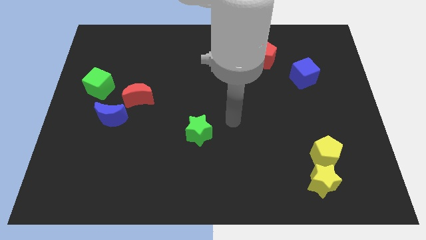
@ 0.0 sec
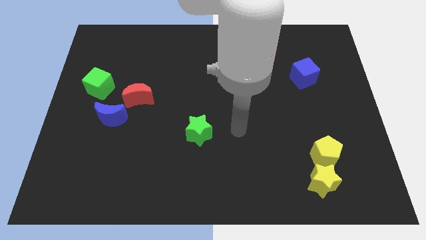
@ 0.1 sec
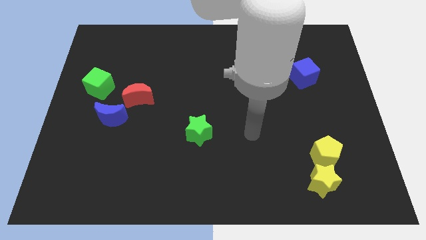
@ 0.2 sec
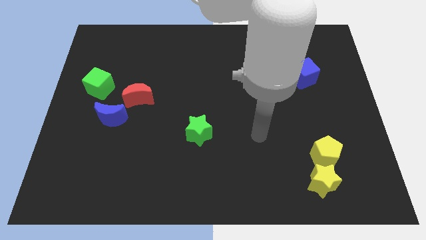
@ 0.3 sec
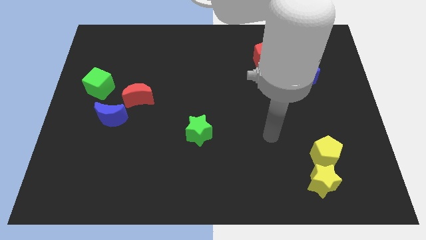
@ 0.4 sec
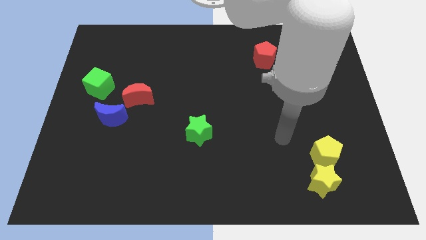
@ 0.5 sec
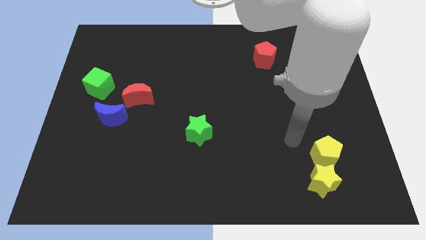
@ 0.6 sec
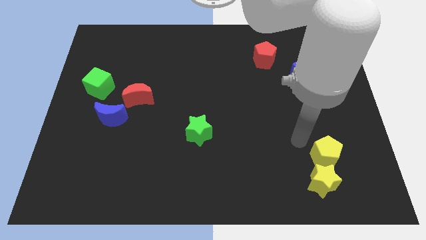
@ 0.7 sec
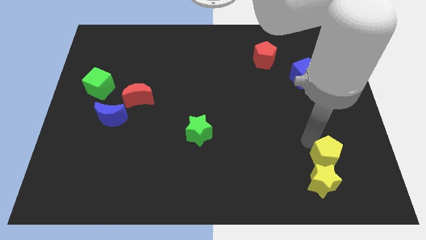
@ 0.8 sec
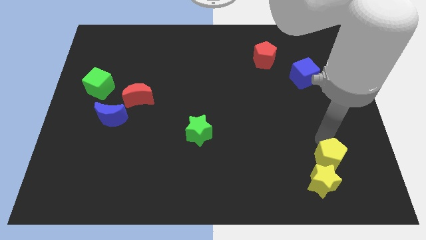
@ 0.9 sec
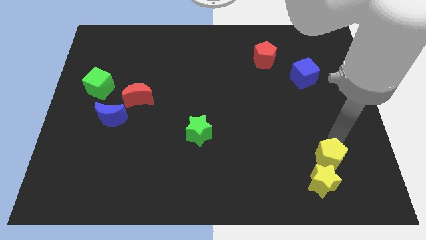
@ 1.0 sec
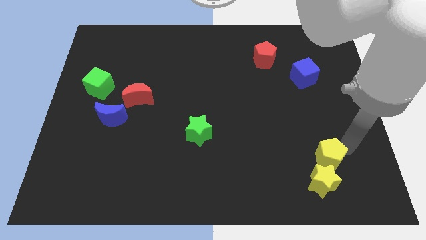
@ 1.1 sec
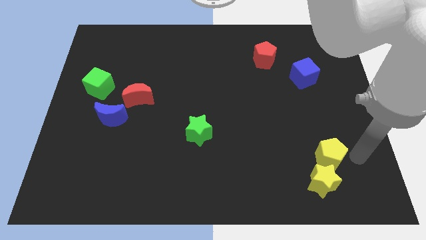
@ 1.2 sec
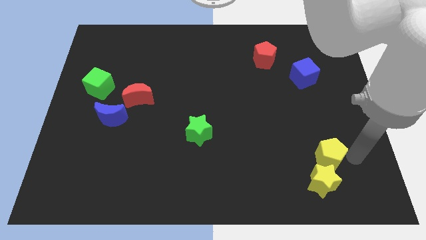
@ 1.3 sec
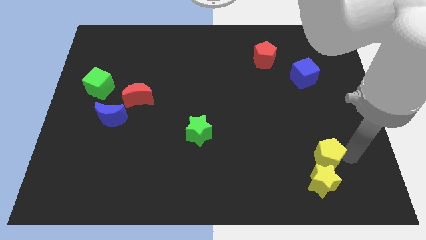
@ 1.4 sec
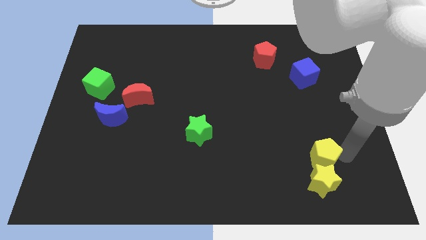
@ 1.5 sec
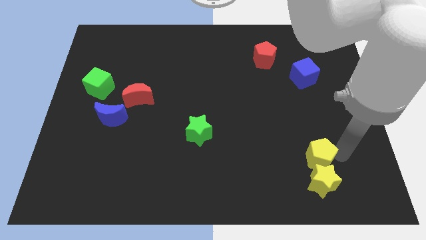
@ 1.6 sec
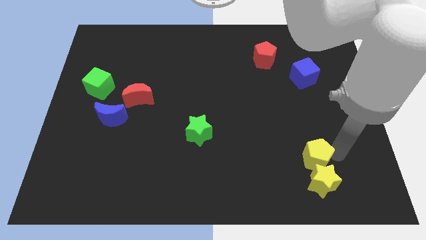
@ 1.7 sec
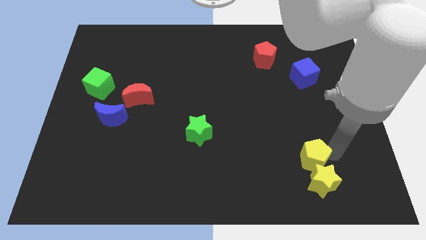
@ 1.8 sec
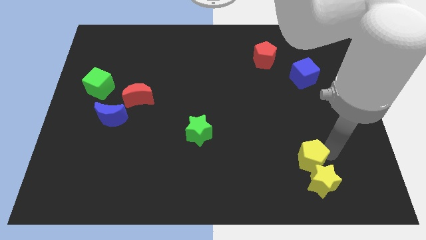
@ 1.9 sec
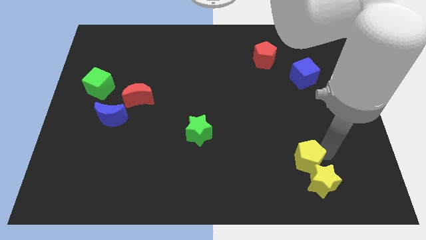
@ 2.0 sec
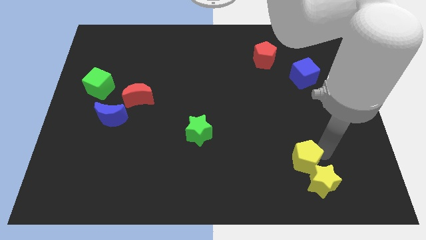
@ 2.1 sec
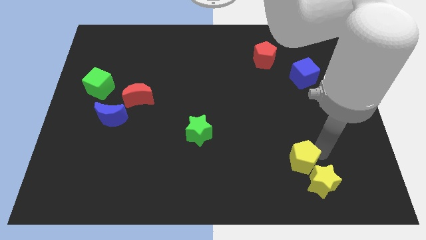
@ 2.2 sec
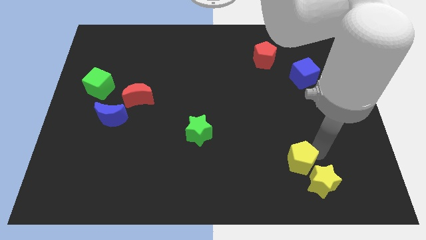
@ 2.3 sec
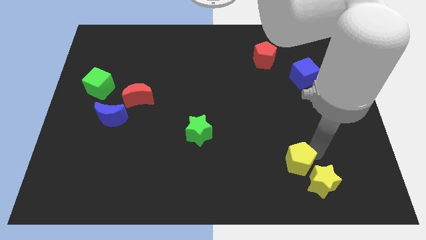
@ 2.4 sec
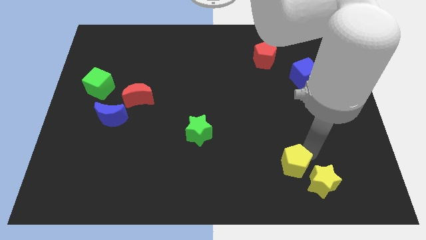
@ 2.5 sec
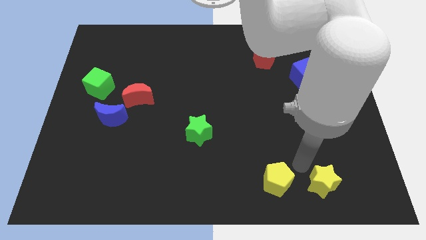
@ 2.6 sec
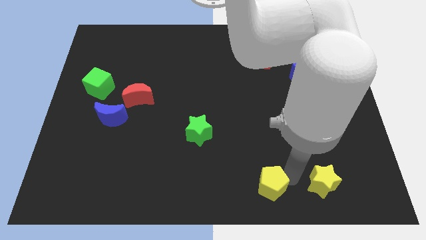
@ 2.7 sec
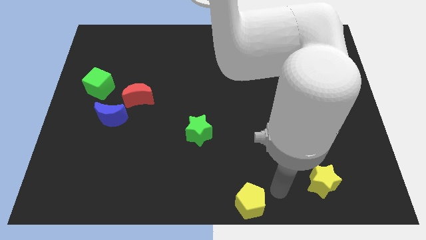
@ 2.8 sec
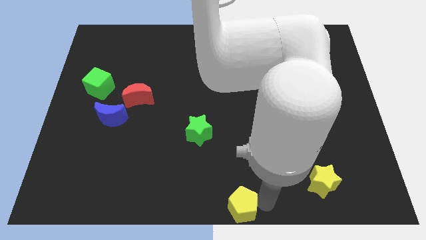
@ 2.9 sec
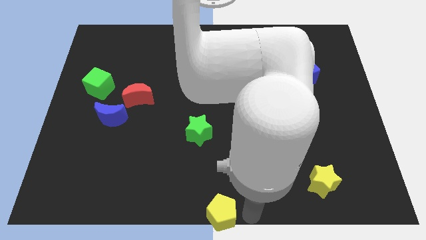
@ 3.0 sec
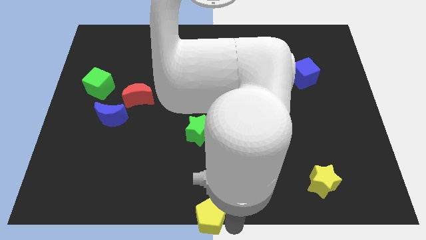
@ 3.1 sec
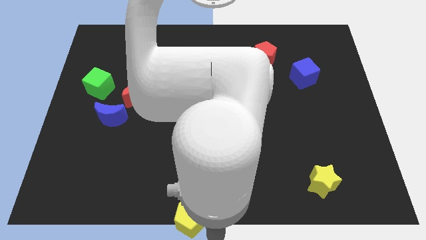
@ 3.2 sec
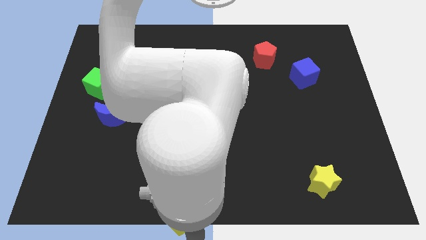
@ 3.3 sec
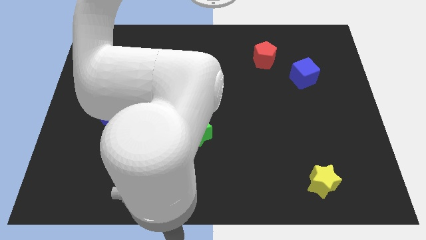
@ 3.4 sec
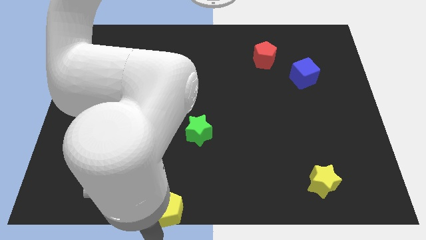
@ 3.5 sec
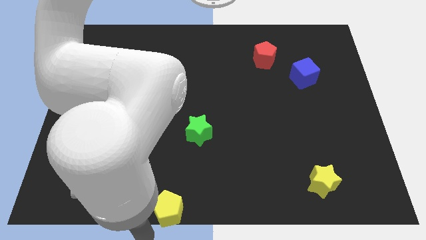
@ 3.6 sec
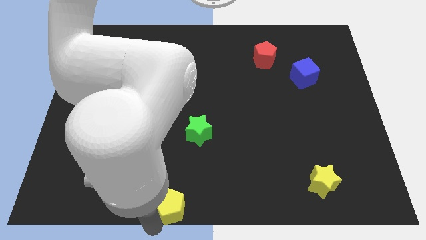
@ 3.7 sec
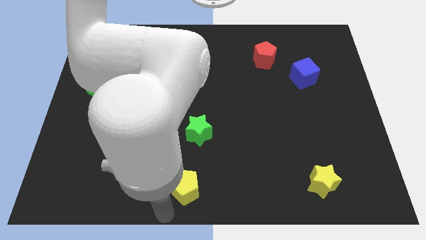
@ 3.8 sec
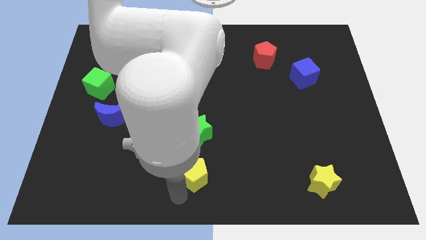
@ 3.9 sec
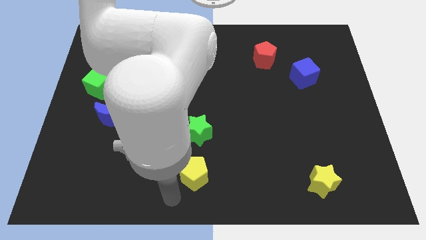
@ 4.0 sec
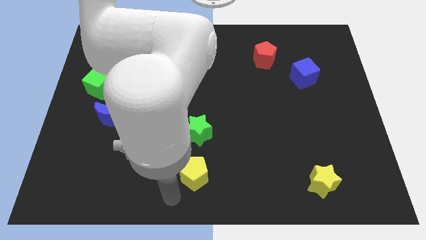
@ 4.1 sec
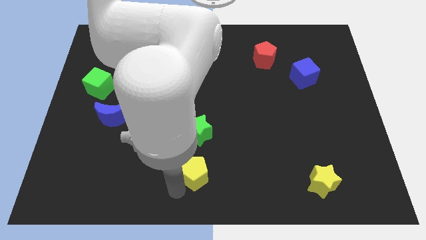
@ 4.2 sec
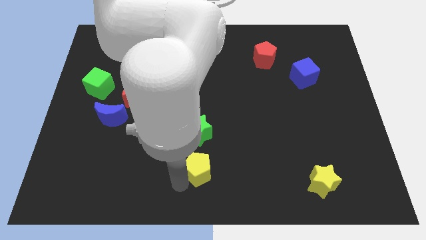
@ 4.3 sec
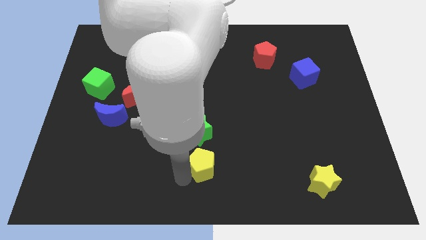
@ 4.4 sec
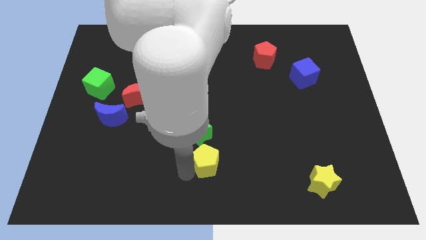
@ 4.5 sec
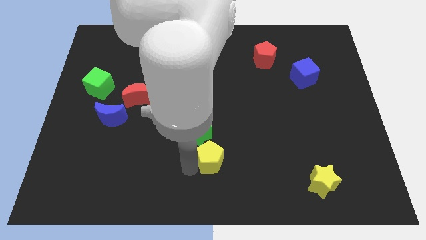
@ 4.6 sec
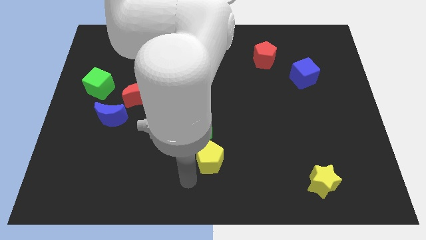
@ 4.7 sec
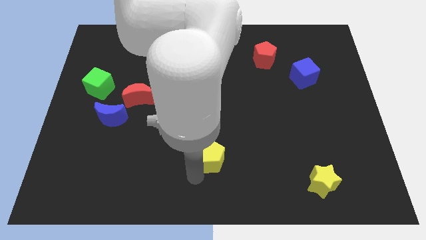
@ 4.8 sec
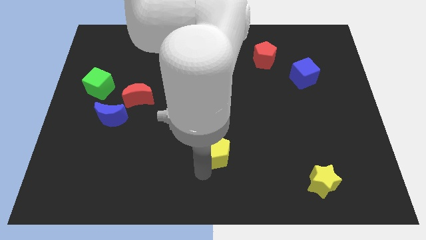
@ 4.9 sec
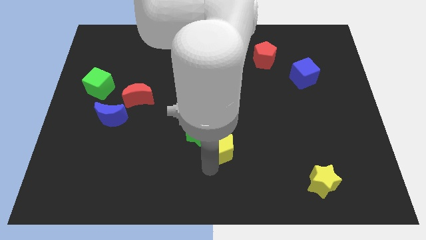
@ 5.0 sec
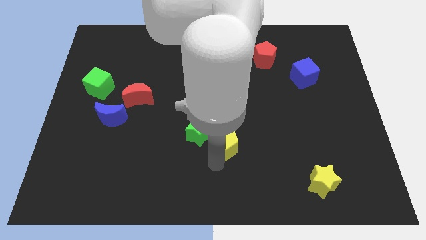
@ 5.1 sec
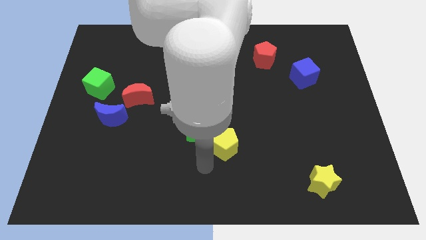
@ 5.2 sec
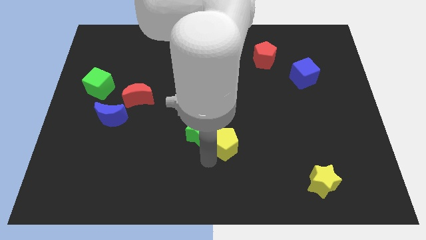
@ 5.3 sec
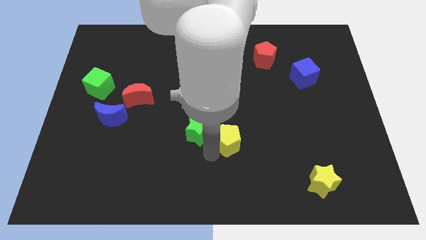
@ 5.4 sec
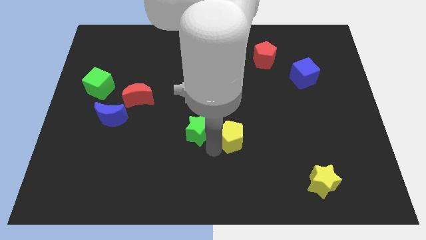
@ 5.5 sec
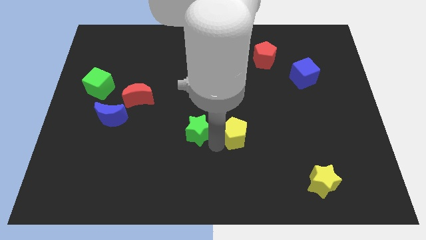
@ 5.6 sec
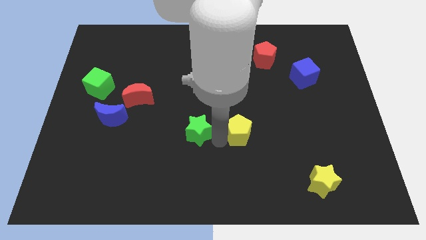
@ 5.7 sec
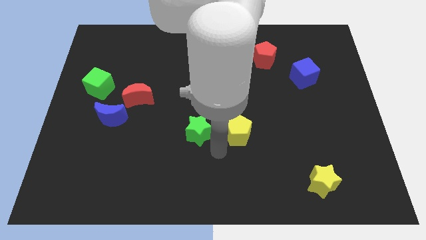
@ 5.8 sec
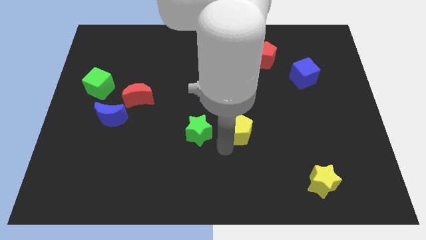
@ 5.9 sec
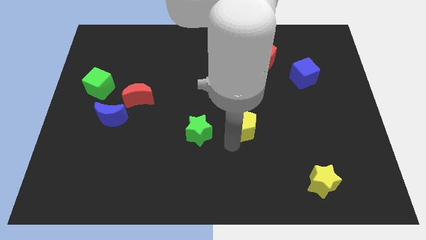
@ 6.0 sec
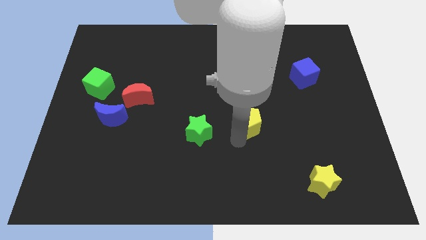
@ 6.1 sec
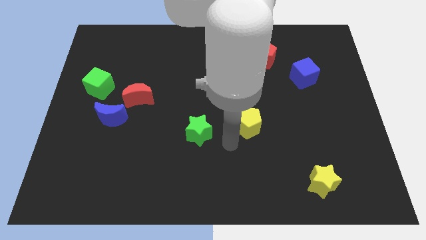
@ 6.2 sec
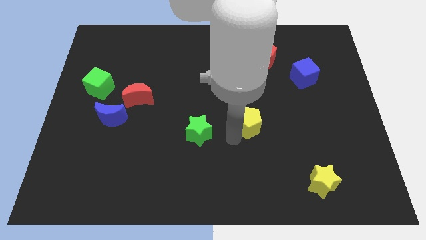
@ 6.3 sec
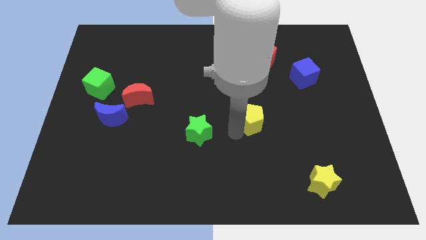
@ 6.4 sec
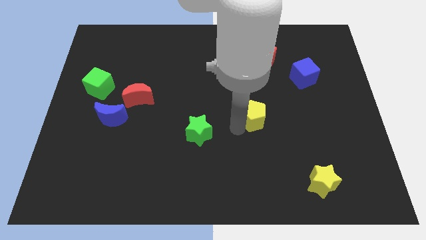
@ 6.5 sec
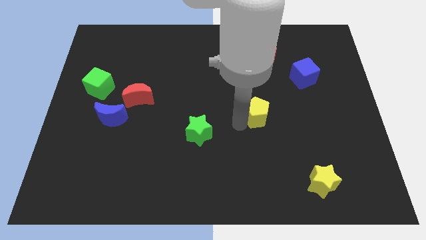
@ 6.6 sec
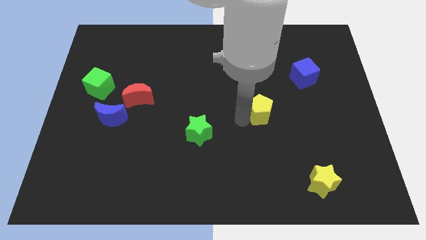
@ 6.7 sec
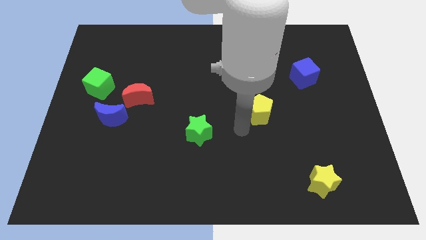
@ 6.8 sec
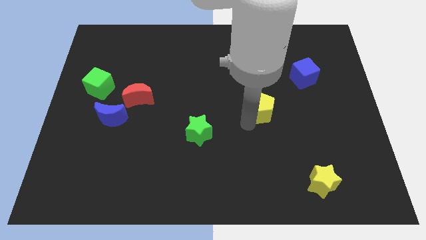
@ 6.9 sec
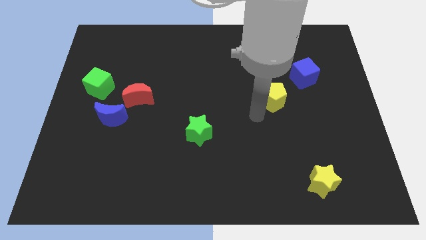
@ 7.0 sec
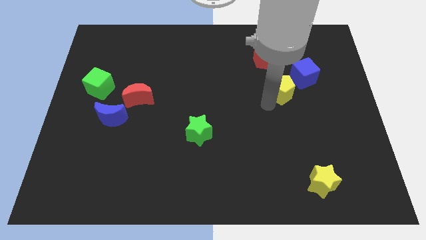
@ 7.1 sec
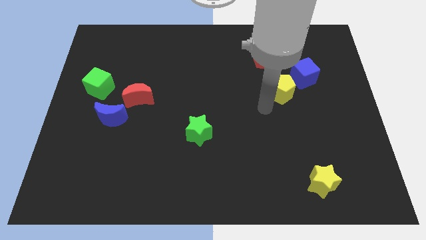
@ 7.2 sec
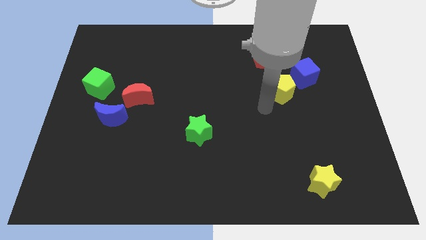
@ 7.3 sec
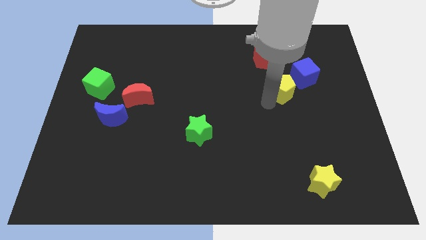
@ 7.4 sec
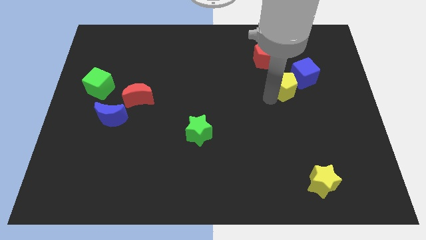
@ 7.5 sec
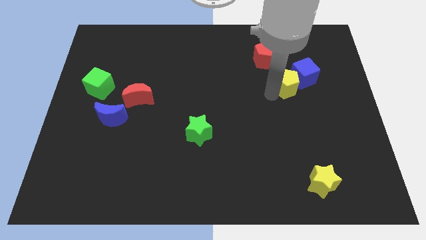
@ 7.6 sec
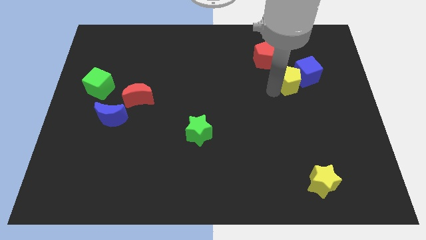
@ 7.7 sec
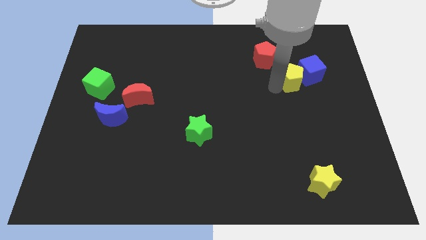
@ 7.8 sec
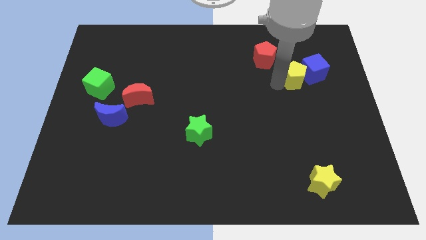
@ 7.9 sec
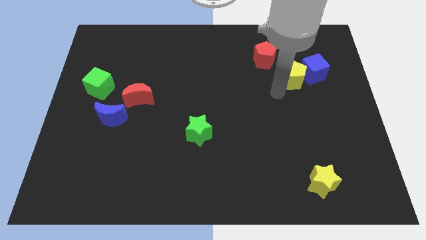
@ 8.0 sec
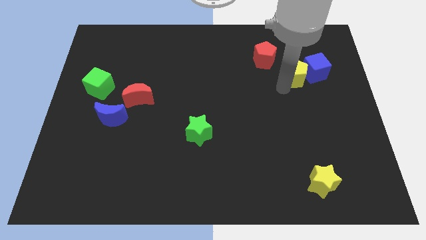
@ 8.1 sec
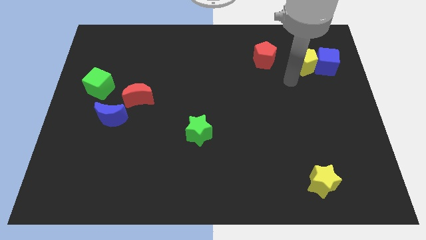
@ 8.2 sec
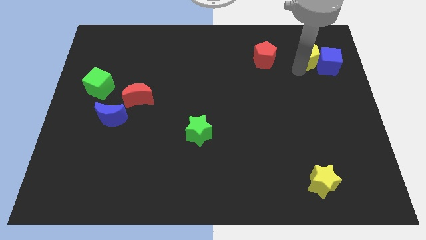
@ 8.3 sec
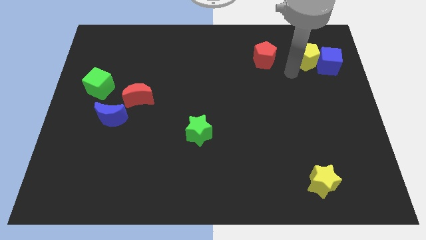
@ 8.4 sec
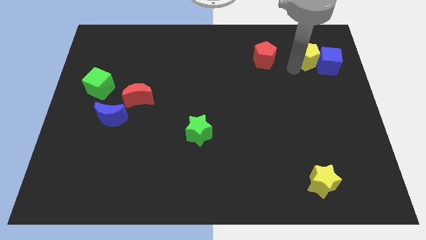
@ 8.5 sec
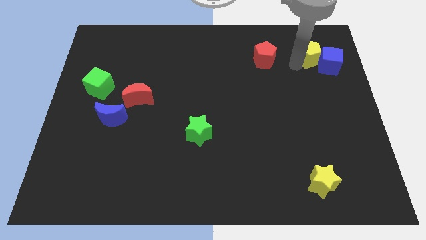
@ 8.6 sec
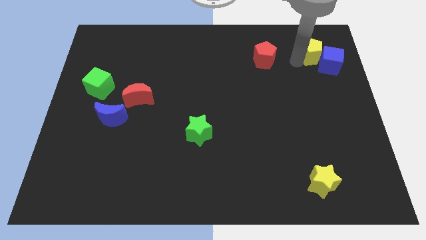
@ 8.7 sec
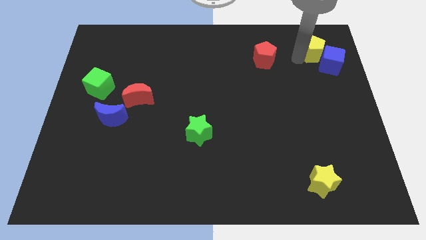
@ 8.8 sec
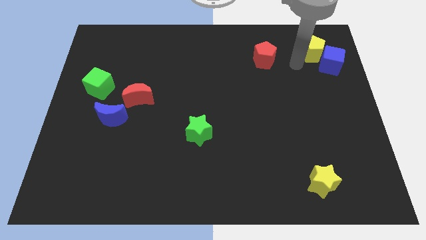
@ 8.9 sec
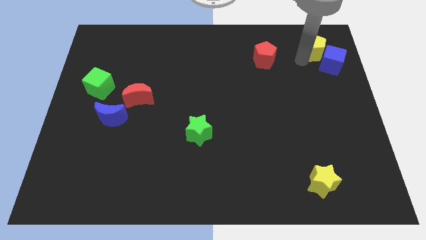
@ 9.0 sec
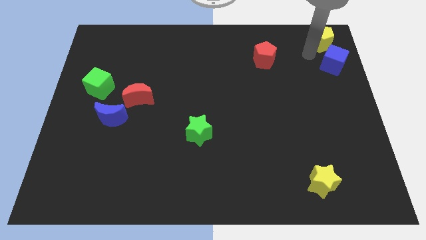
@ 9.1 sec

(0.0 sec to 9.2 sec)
push the yellow pentagon to the top right corner
